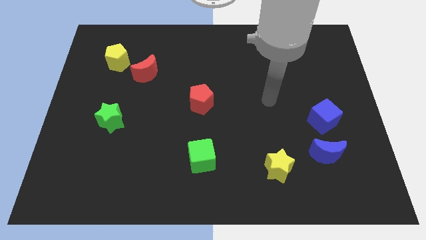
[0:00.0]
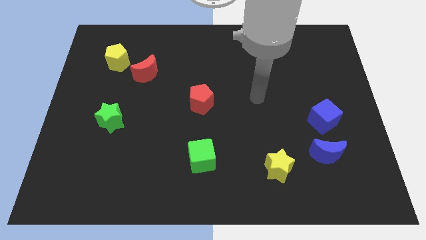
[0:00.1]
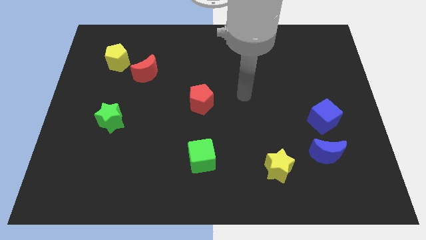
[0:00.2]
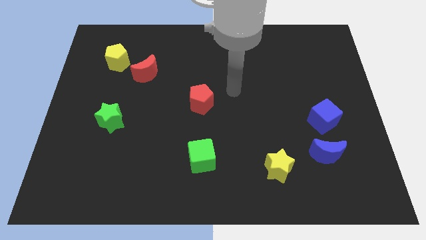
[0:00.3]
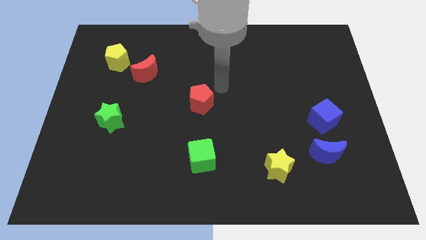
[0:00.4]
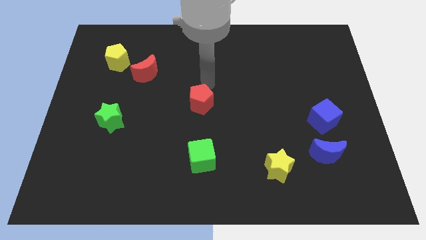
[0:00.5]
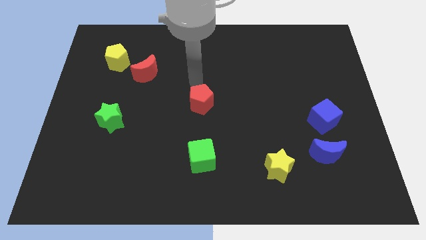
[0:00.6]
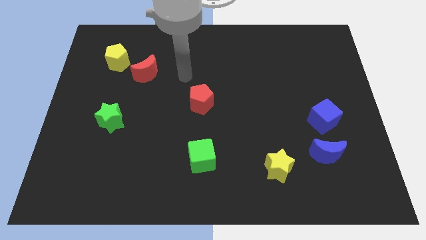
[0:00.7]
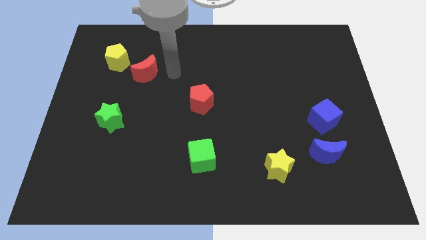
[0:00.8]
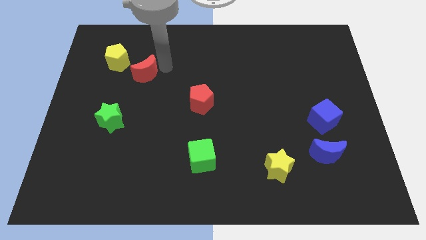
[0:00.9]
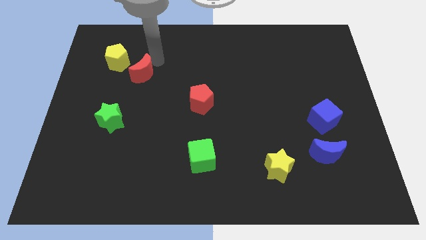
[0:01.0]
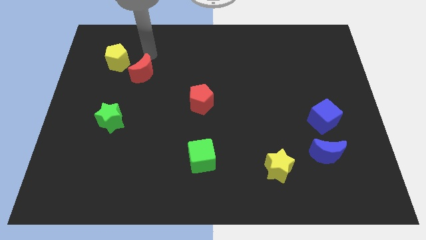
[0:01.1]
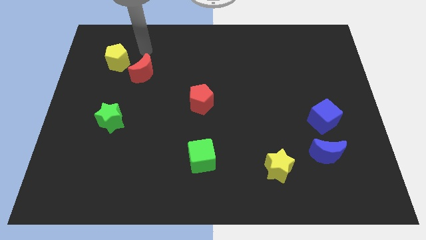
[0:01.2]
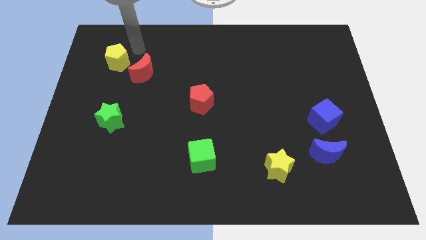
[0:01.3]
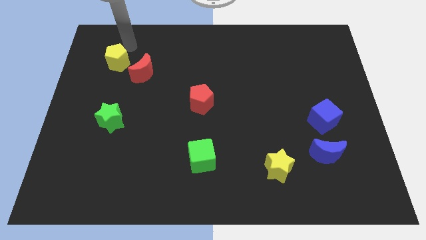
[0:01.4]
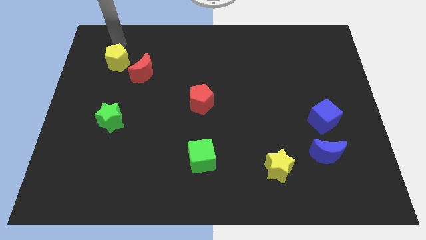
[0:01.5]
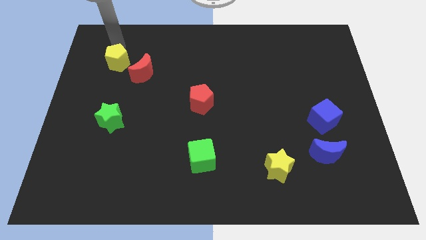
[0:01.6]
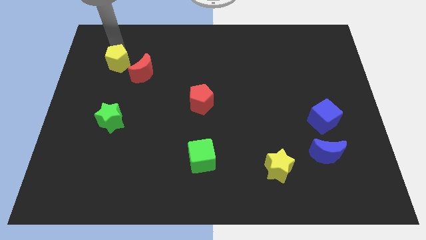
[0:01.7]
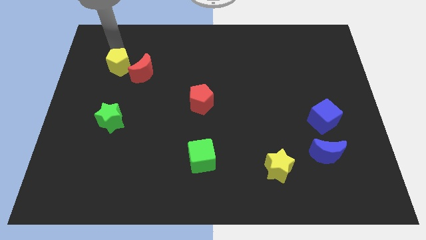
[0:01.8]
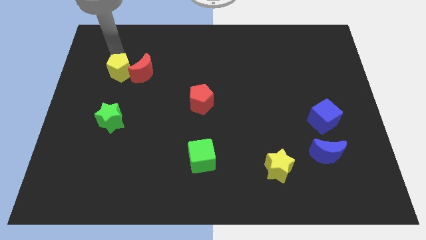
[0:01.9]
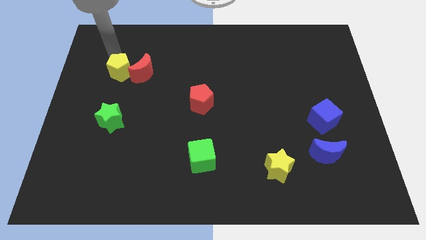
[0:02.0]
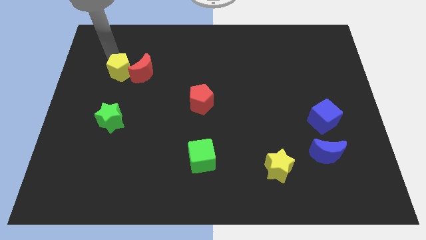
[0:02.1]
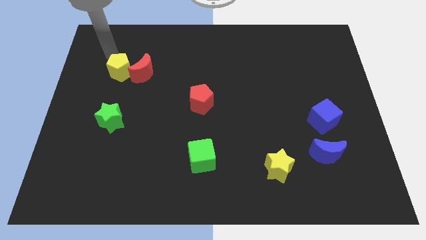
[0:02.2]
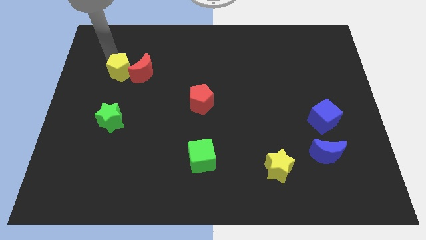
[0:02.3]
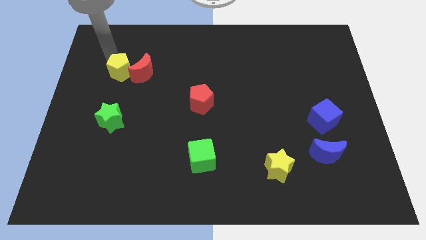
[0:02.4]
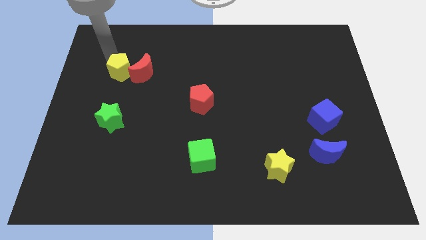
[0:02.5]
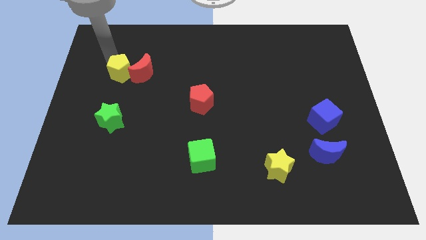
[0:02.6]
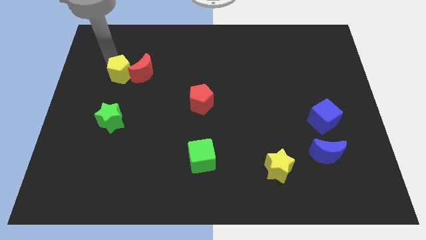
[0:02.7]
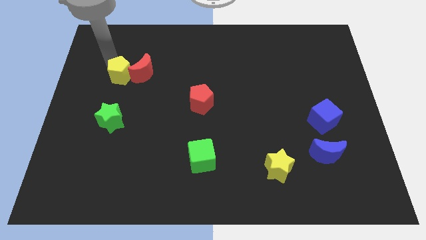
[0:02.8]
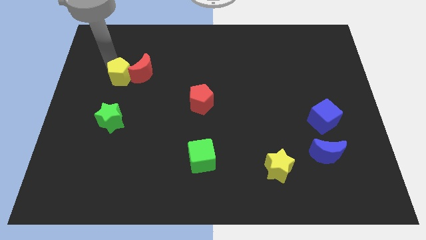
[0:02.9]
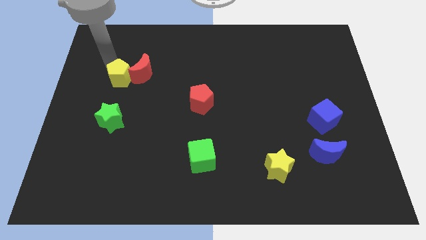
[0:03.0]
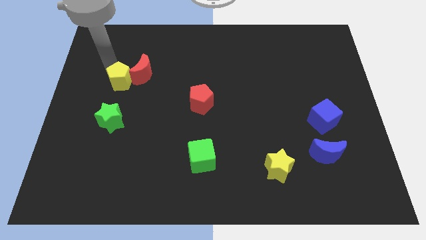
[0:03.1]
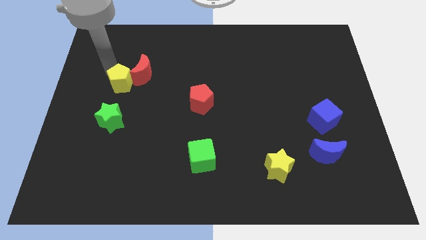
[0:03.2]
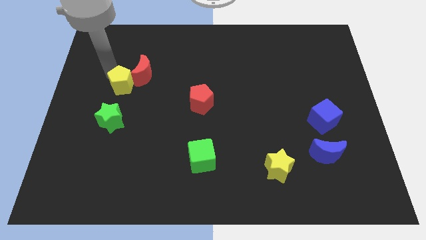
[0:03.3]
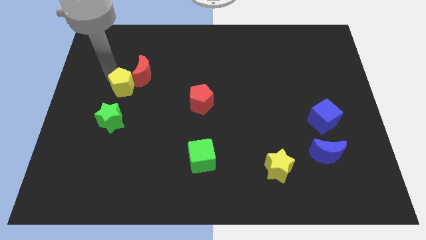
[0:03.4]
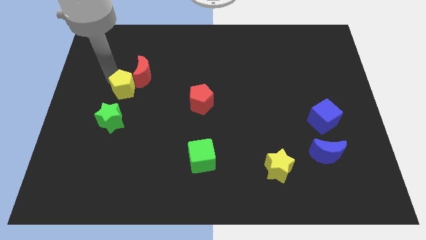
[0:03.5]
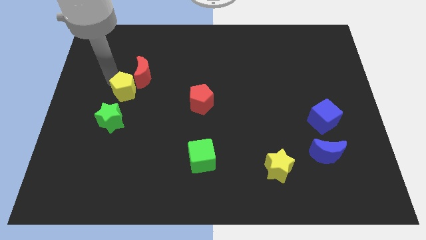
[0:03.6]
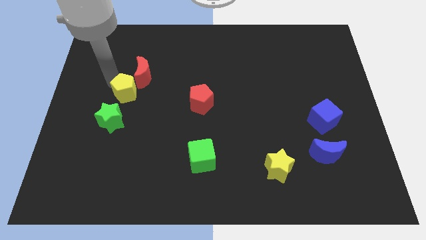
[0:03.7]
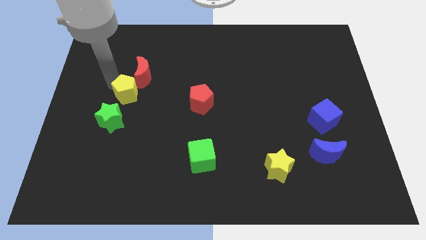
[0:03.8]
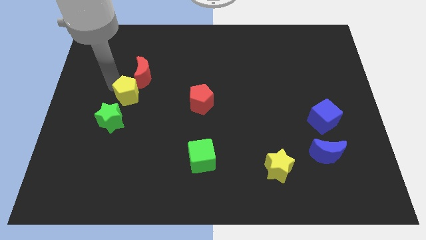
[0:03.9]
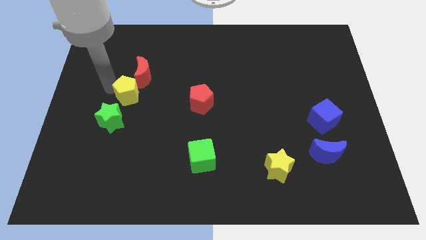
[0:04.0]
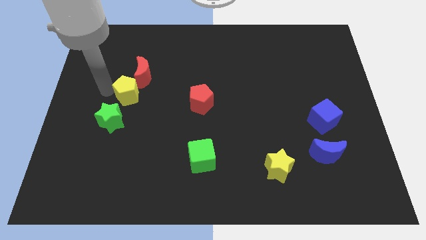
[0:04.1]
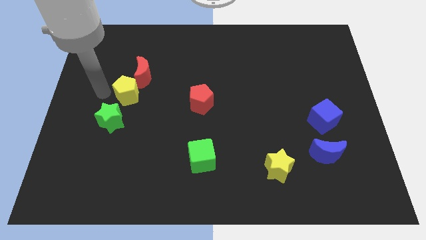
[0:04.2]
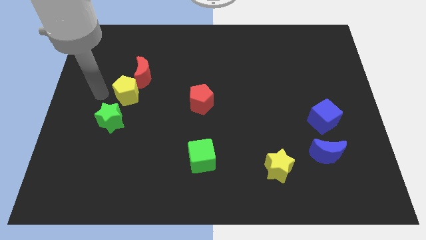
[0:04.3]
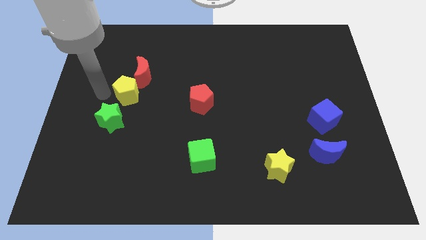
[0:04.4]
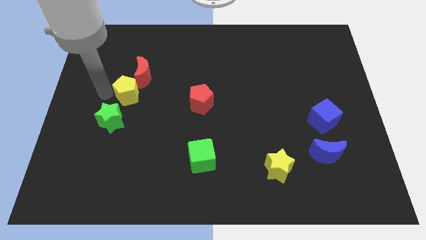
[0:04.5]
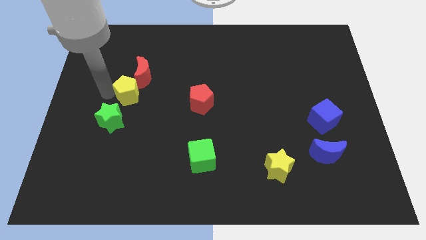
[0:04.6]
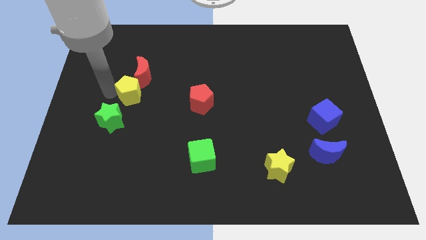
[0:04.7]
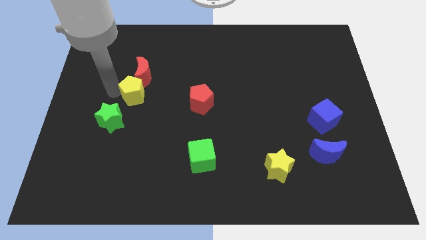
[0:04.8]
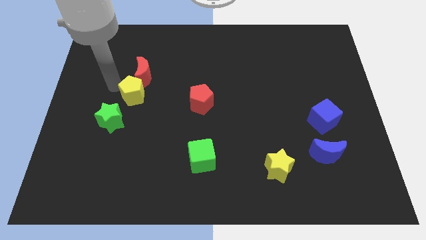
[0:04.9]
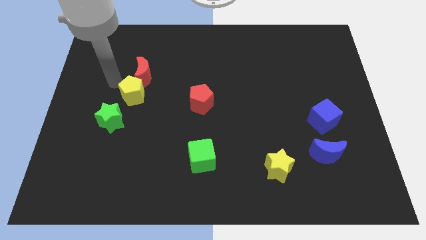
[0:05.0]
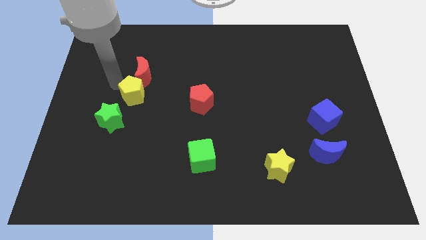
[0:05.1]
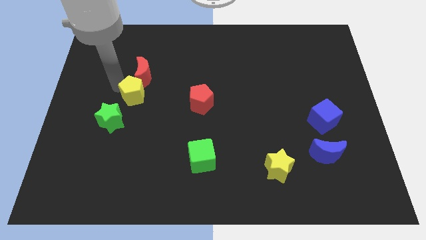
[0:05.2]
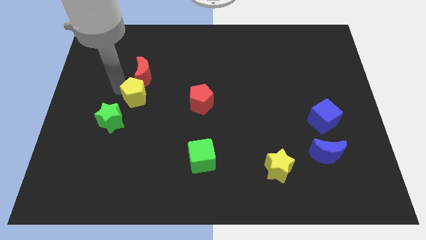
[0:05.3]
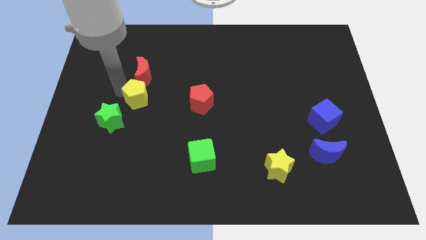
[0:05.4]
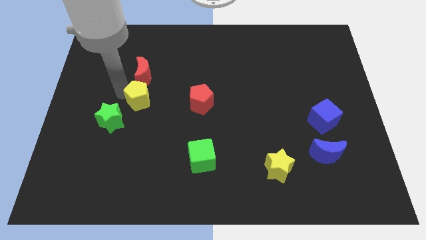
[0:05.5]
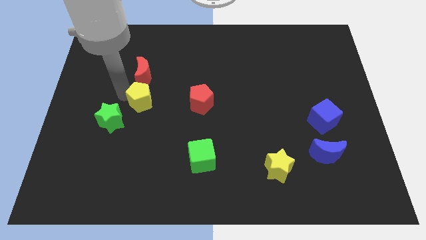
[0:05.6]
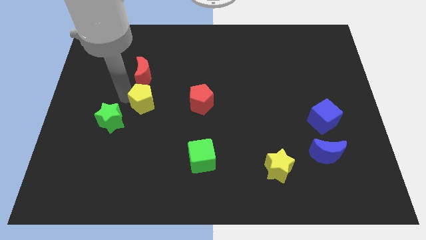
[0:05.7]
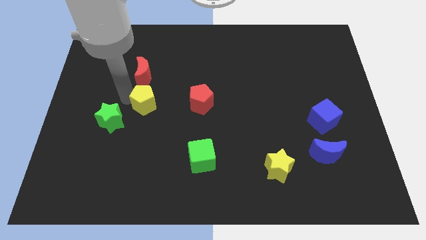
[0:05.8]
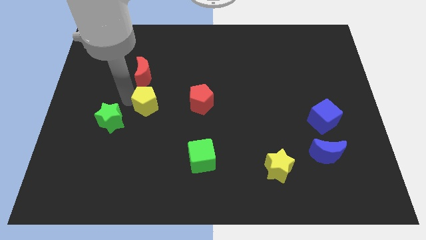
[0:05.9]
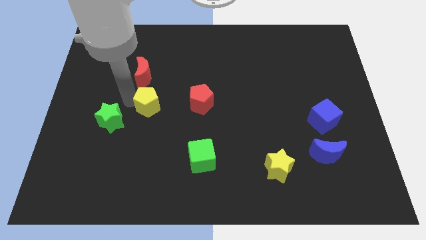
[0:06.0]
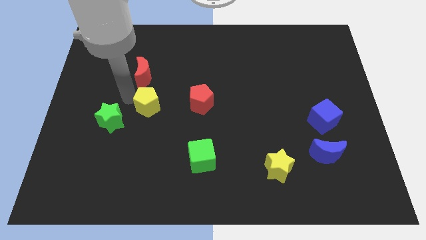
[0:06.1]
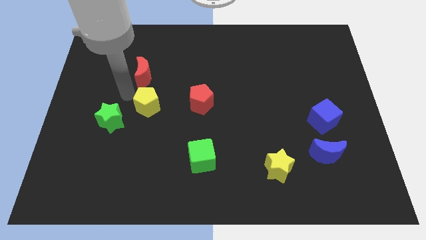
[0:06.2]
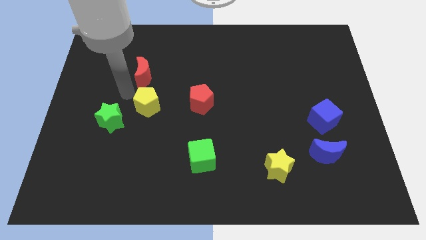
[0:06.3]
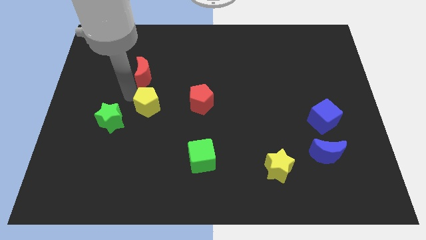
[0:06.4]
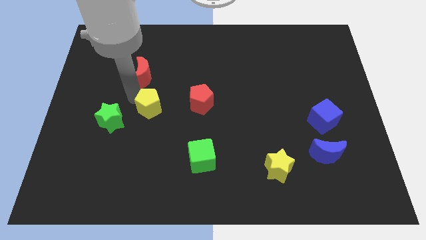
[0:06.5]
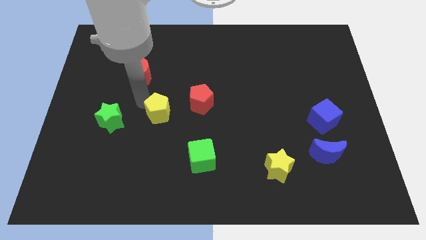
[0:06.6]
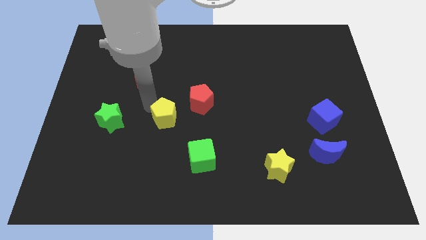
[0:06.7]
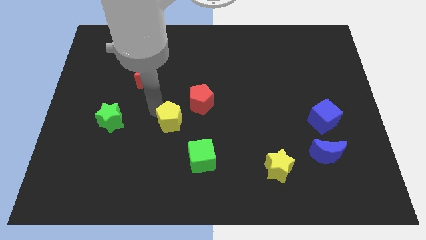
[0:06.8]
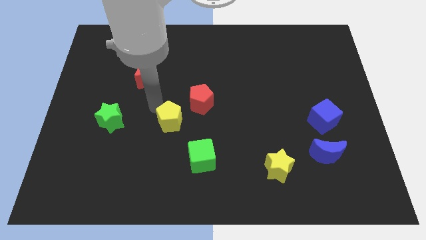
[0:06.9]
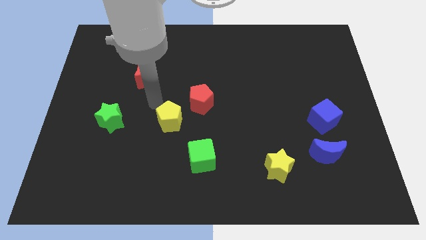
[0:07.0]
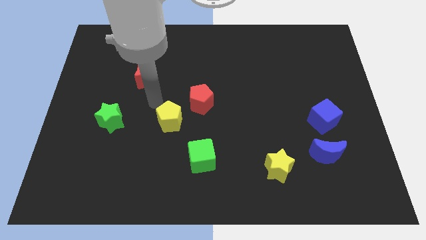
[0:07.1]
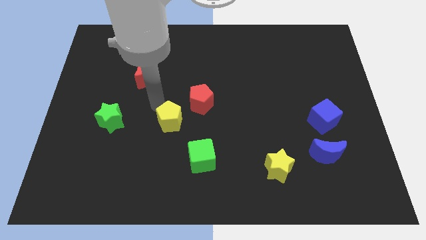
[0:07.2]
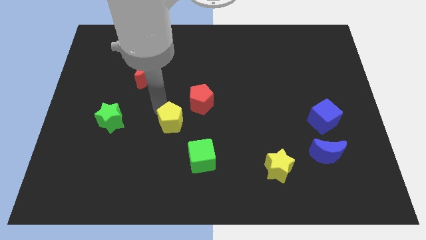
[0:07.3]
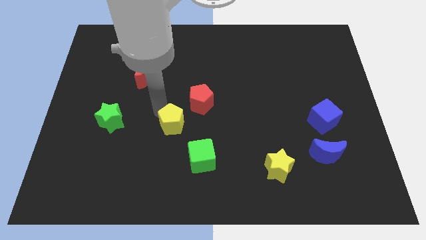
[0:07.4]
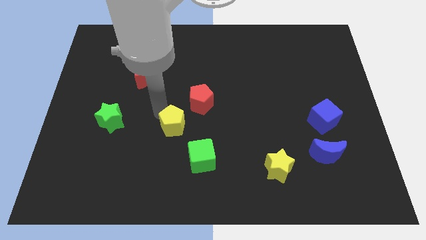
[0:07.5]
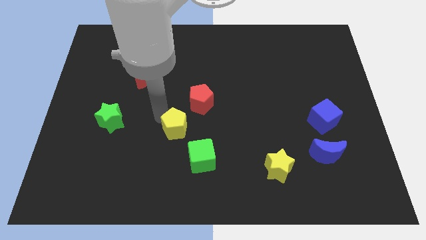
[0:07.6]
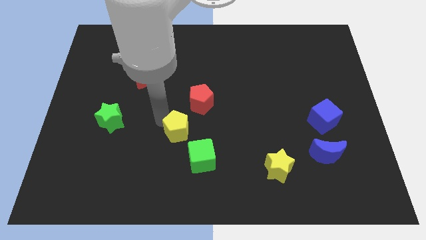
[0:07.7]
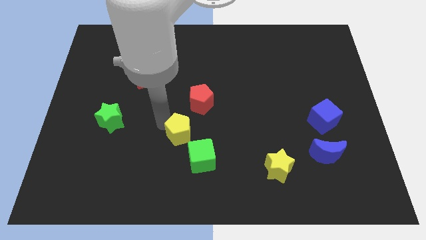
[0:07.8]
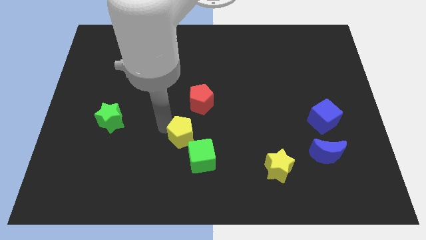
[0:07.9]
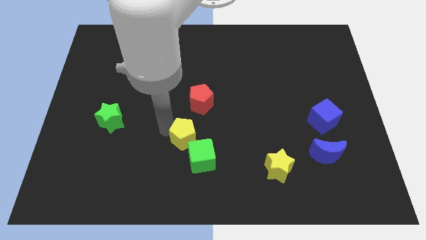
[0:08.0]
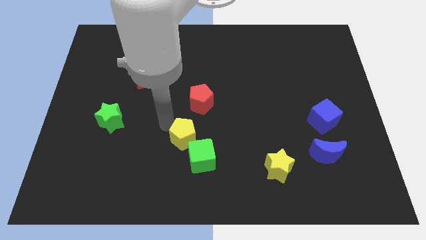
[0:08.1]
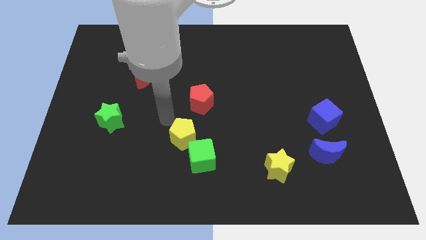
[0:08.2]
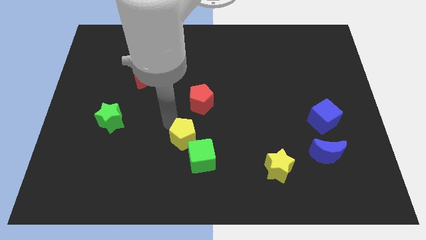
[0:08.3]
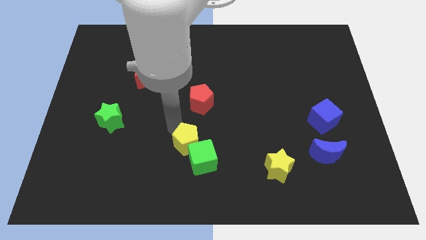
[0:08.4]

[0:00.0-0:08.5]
move the yellow pentagon close to the green cube
